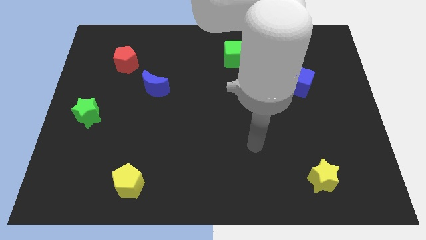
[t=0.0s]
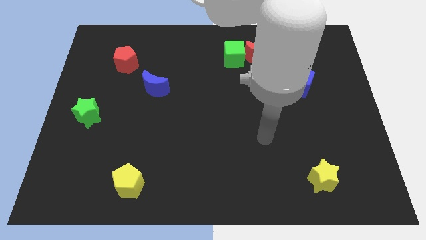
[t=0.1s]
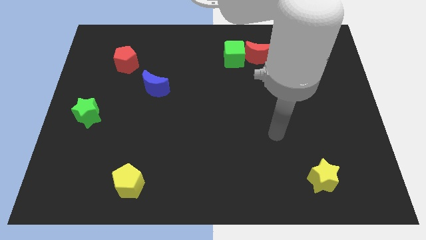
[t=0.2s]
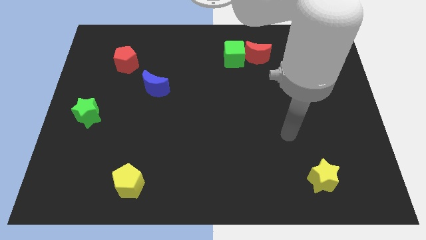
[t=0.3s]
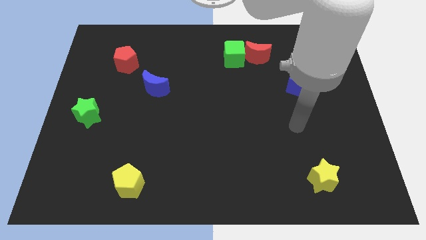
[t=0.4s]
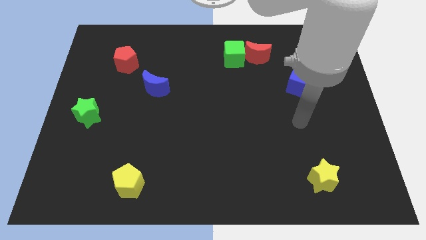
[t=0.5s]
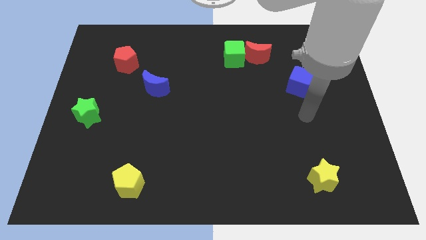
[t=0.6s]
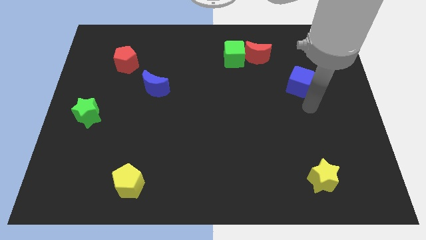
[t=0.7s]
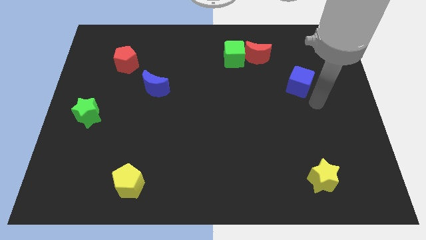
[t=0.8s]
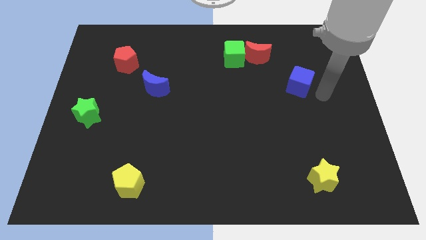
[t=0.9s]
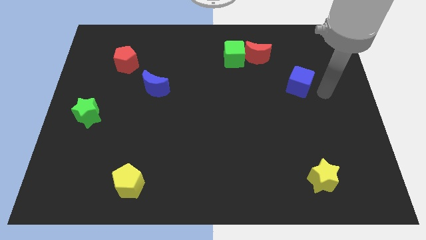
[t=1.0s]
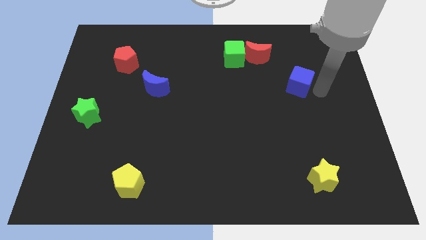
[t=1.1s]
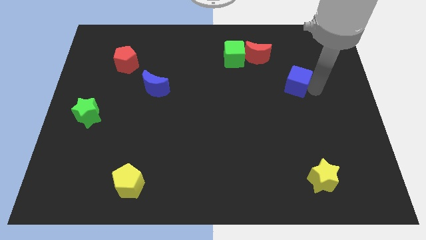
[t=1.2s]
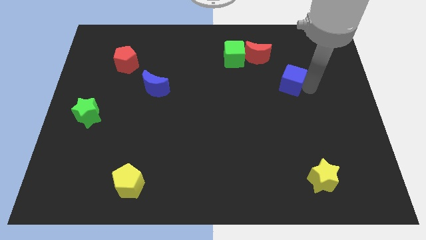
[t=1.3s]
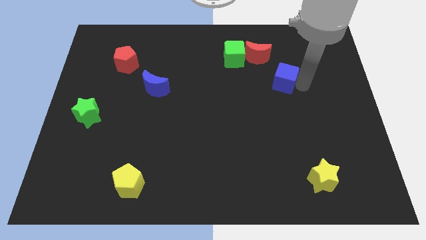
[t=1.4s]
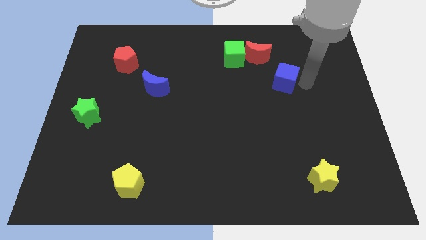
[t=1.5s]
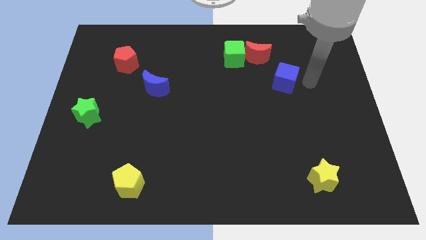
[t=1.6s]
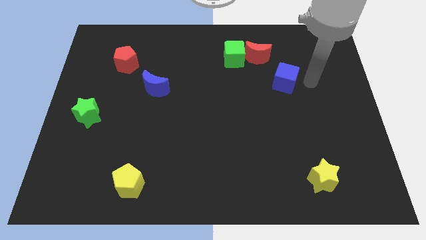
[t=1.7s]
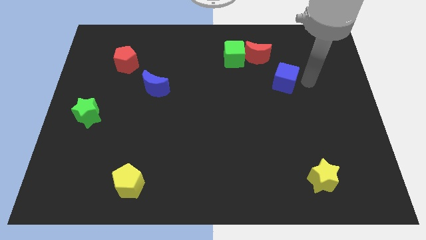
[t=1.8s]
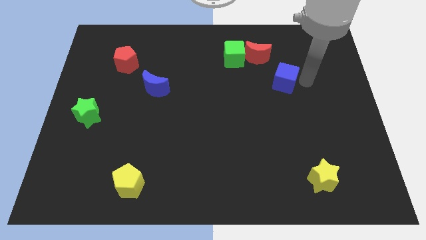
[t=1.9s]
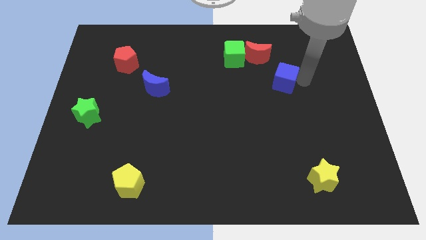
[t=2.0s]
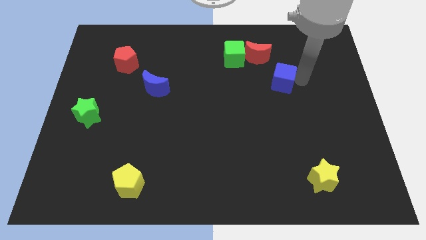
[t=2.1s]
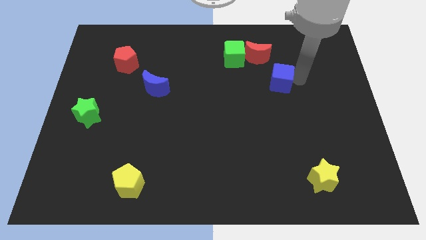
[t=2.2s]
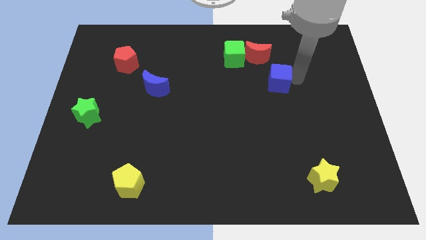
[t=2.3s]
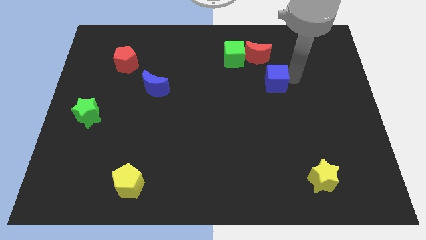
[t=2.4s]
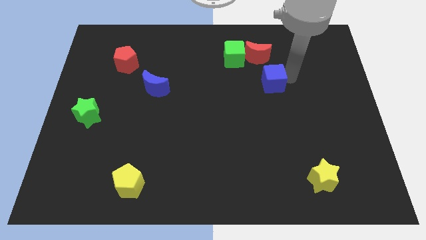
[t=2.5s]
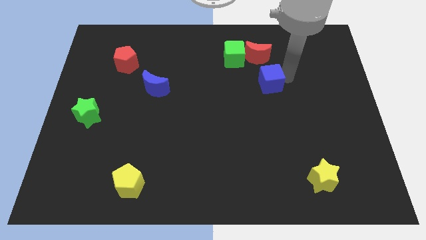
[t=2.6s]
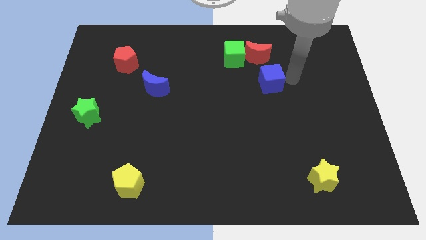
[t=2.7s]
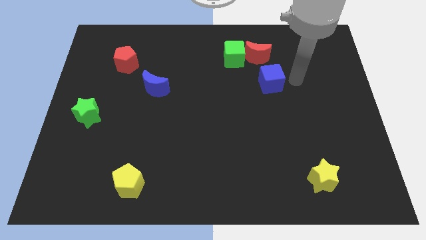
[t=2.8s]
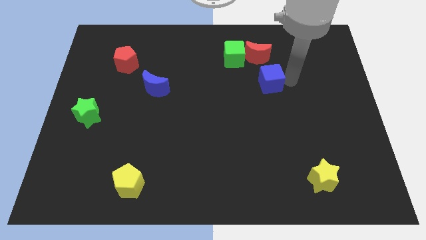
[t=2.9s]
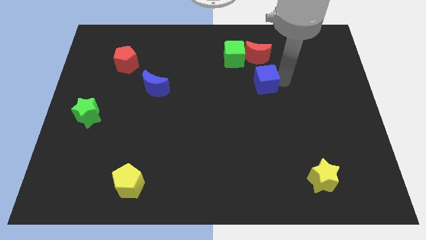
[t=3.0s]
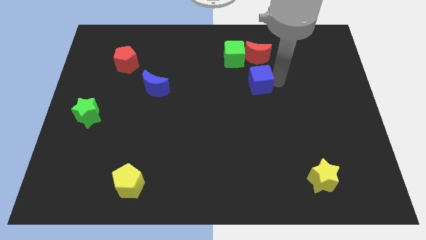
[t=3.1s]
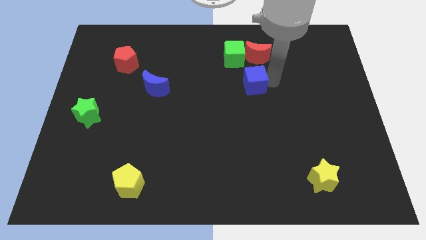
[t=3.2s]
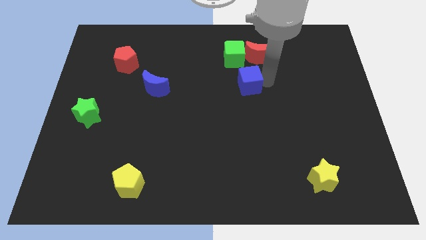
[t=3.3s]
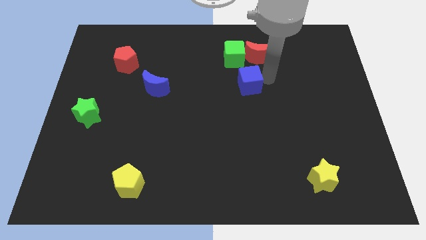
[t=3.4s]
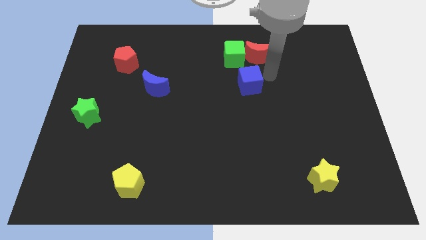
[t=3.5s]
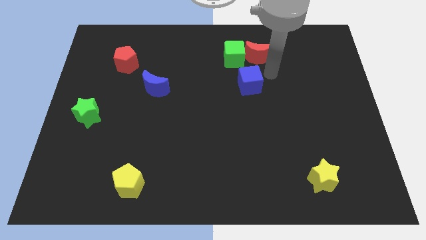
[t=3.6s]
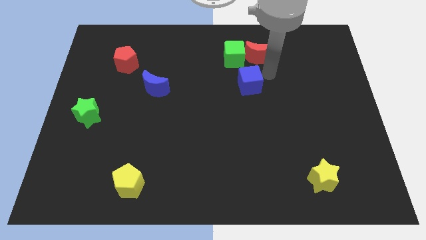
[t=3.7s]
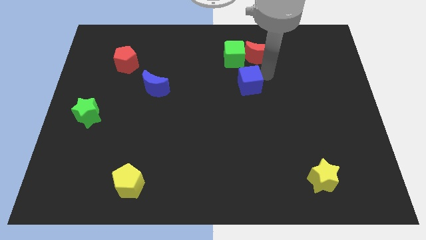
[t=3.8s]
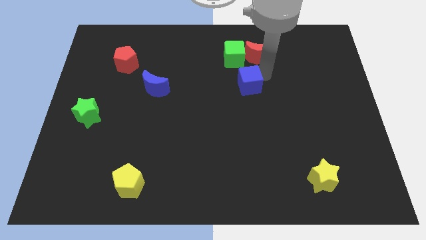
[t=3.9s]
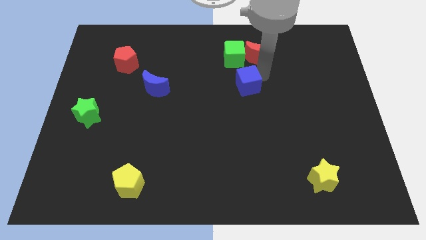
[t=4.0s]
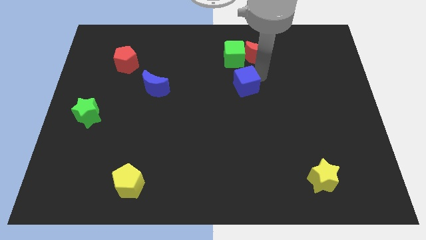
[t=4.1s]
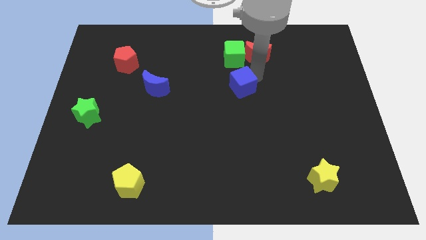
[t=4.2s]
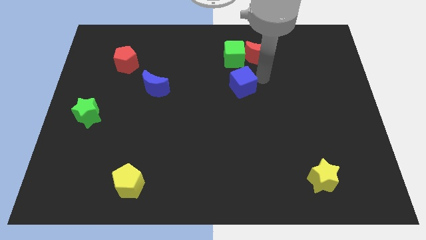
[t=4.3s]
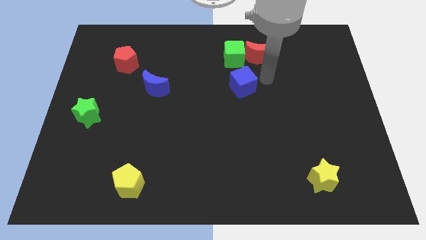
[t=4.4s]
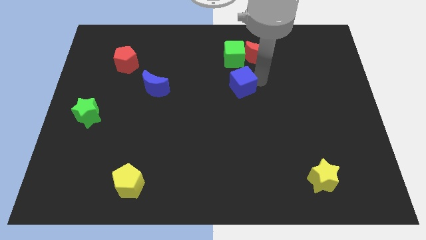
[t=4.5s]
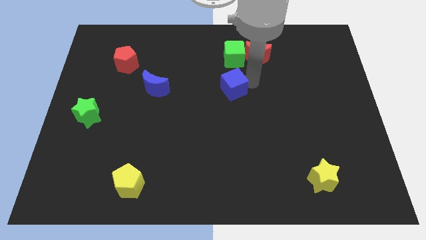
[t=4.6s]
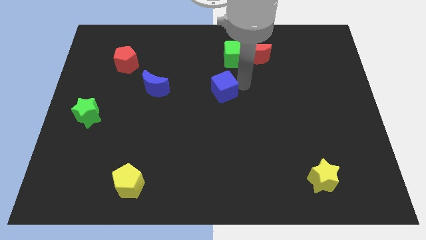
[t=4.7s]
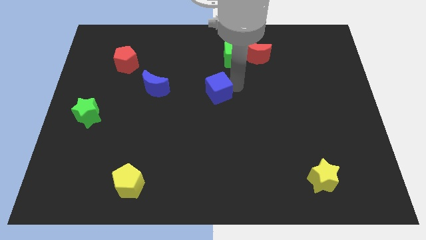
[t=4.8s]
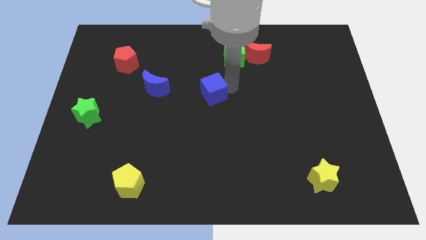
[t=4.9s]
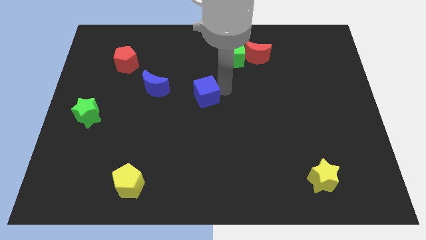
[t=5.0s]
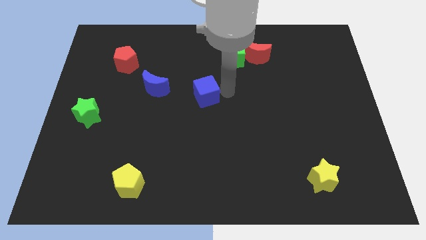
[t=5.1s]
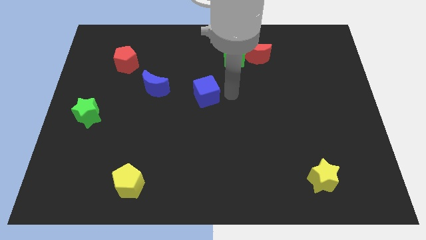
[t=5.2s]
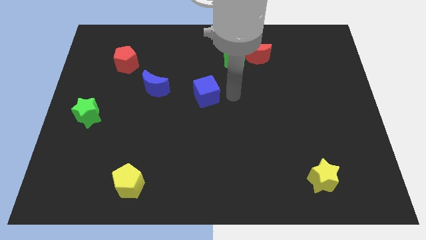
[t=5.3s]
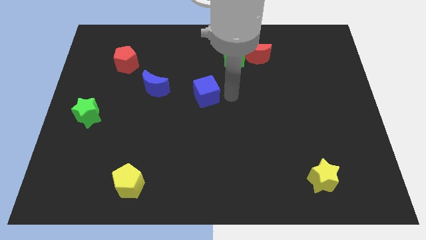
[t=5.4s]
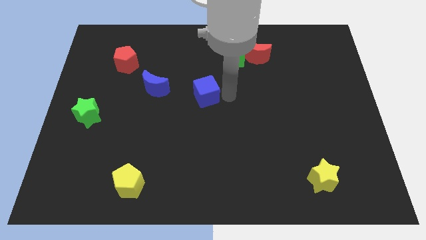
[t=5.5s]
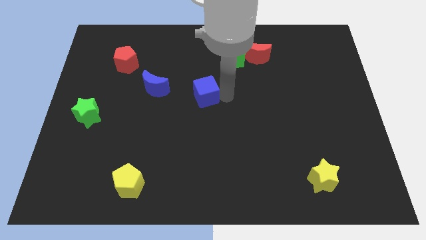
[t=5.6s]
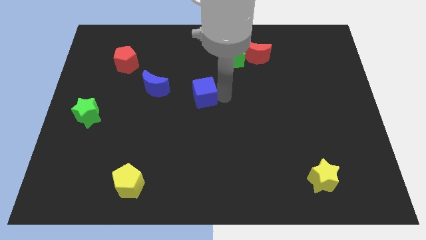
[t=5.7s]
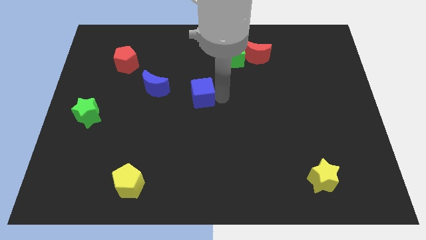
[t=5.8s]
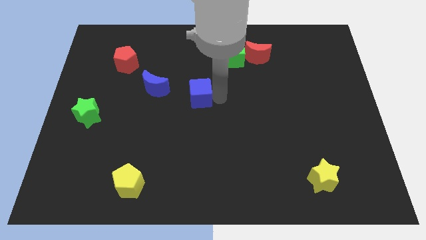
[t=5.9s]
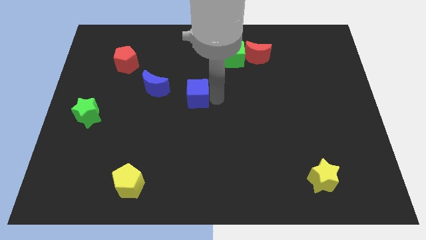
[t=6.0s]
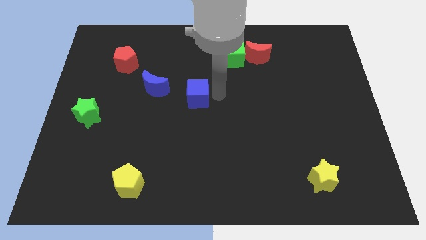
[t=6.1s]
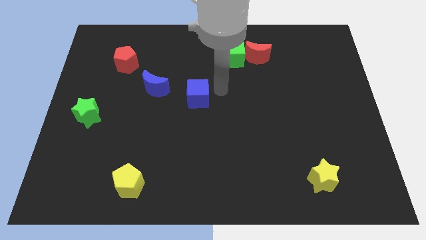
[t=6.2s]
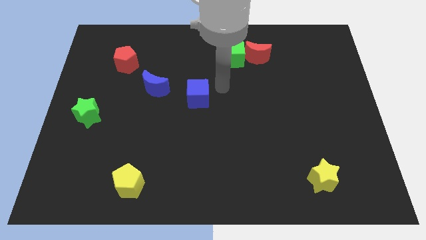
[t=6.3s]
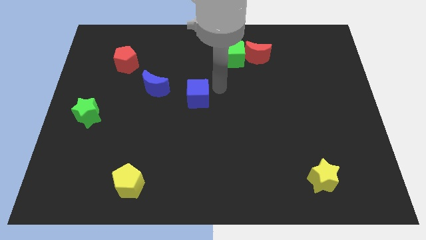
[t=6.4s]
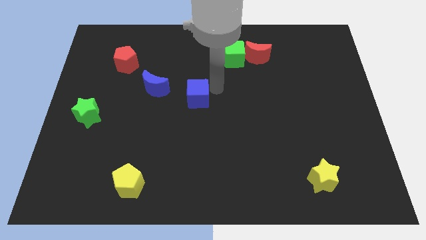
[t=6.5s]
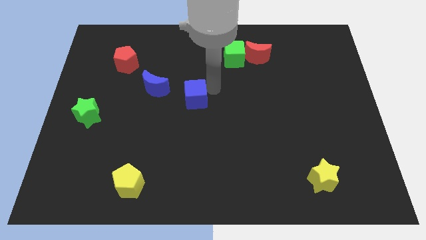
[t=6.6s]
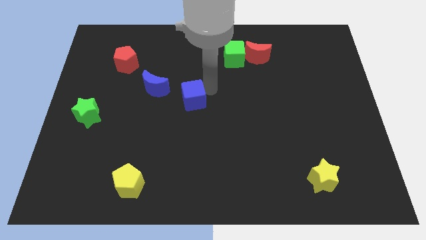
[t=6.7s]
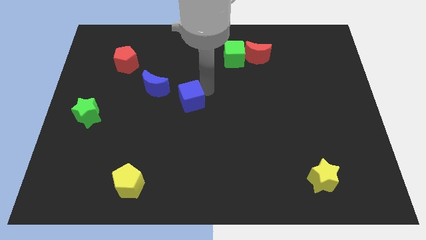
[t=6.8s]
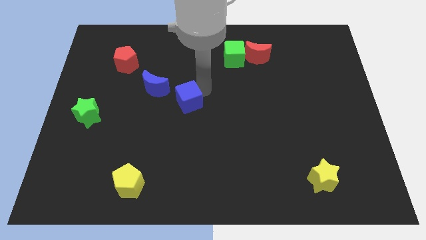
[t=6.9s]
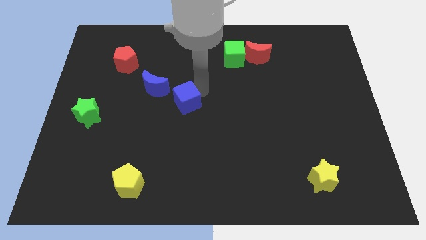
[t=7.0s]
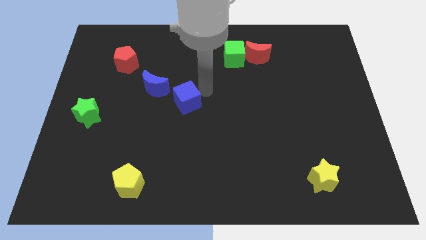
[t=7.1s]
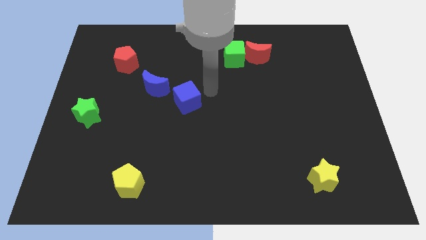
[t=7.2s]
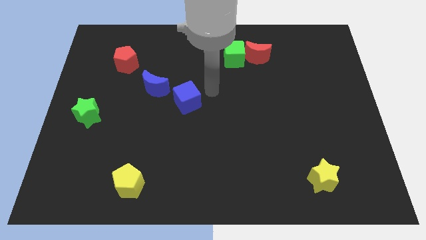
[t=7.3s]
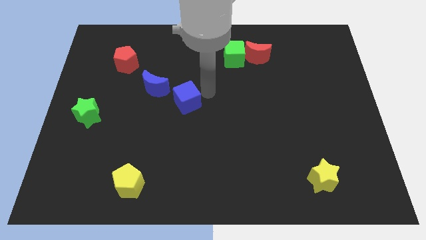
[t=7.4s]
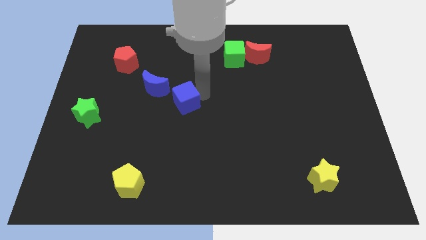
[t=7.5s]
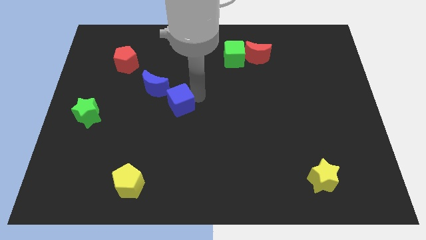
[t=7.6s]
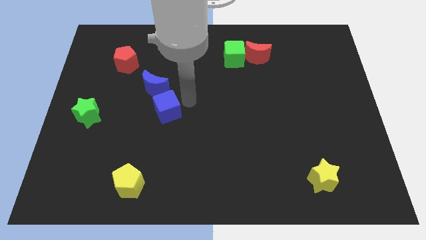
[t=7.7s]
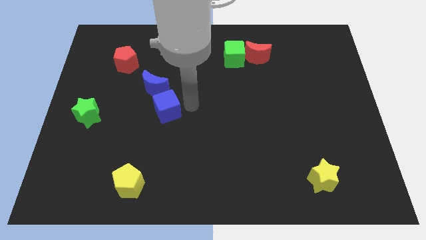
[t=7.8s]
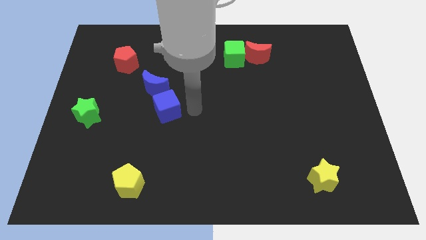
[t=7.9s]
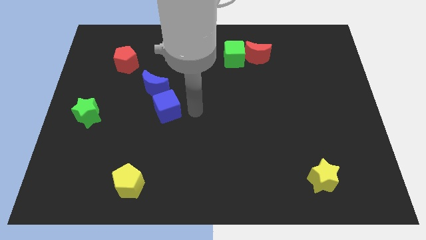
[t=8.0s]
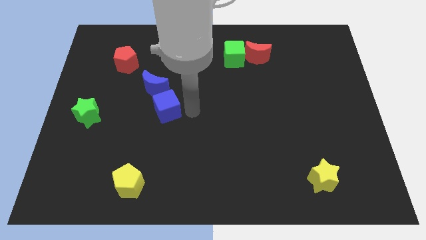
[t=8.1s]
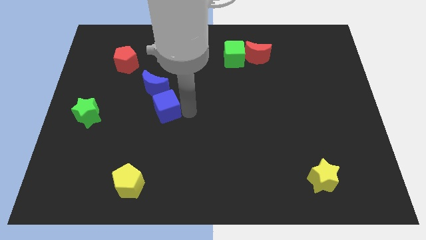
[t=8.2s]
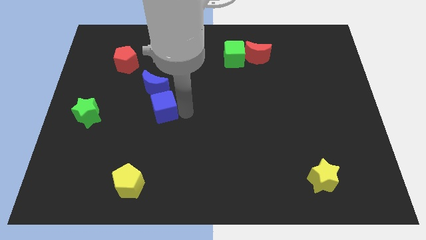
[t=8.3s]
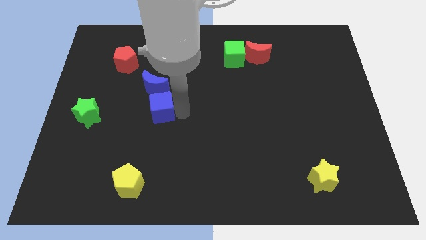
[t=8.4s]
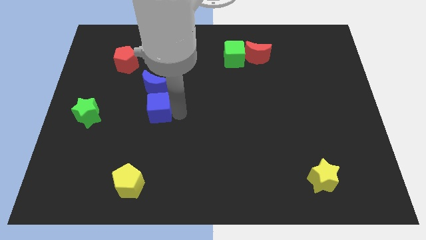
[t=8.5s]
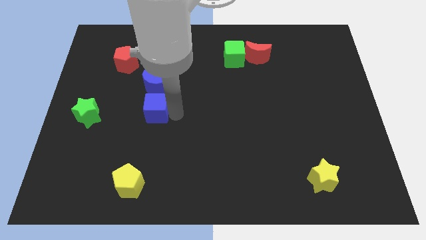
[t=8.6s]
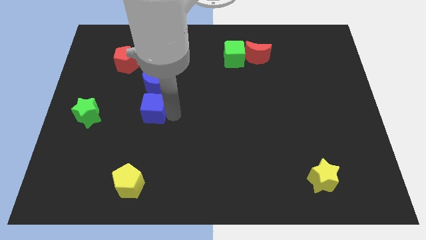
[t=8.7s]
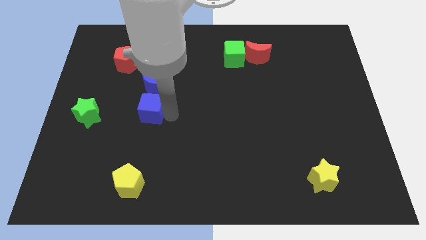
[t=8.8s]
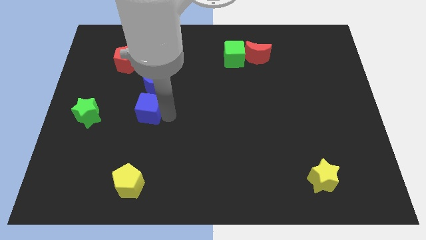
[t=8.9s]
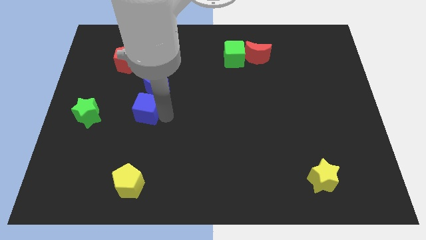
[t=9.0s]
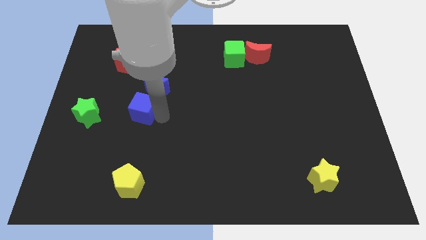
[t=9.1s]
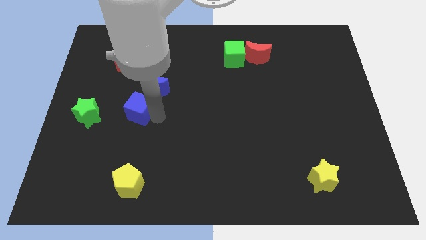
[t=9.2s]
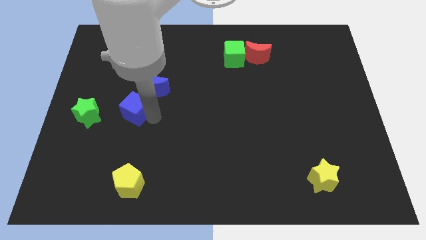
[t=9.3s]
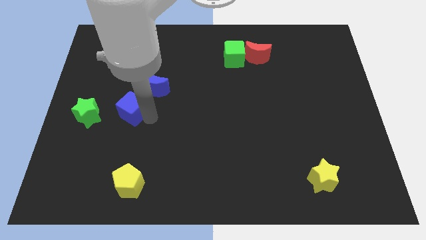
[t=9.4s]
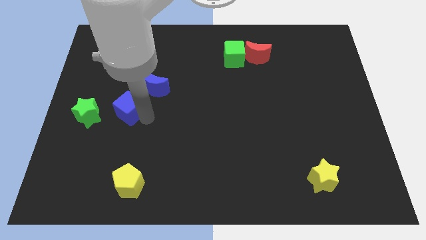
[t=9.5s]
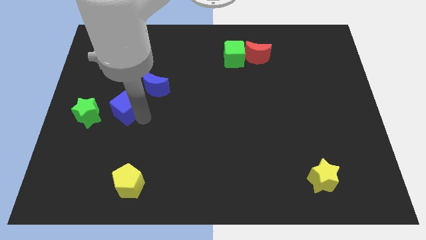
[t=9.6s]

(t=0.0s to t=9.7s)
slide the blue cube to the bottom side of the red pentagon
